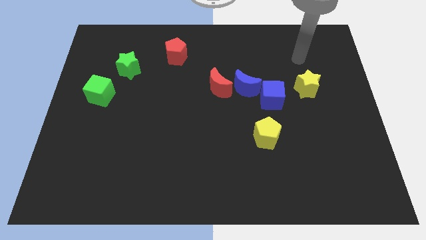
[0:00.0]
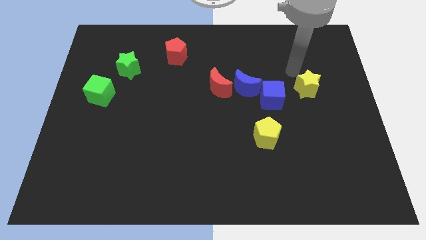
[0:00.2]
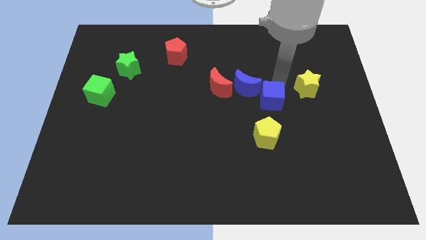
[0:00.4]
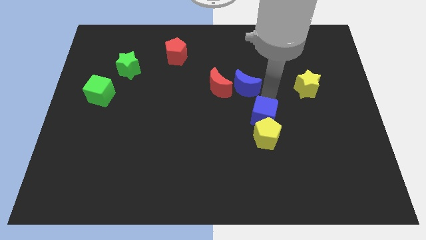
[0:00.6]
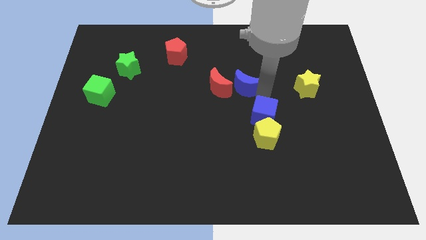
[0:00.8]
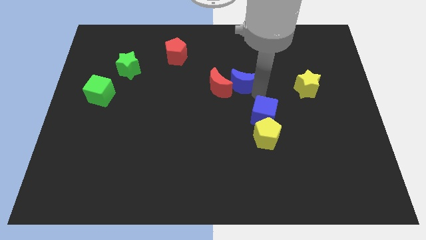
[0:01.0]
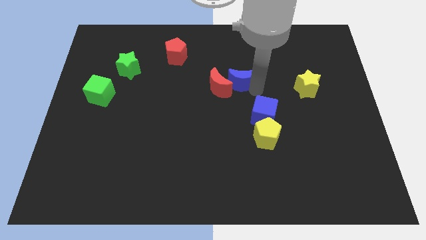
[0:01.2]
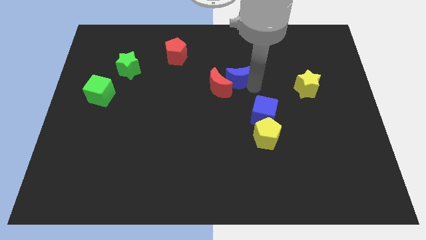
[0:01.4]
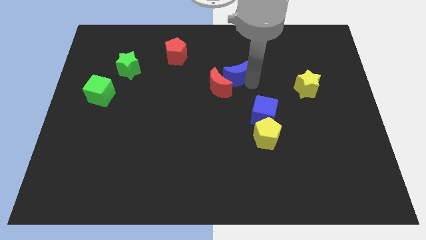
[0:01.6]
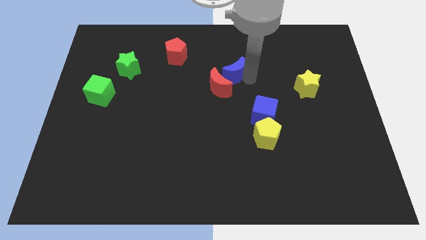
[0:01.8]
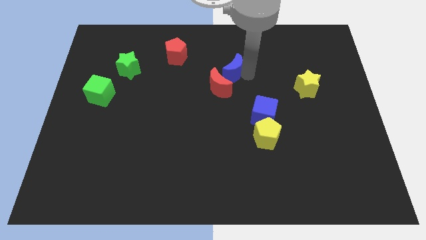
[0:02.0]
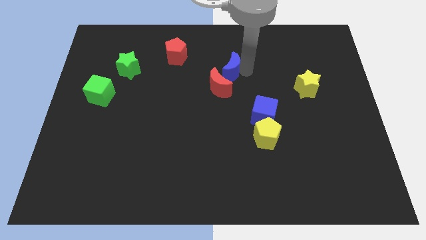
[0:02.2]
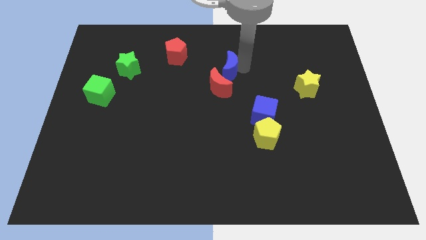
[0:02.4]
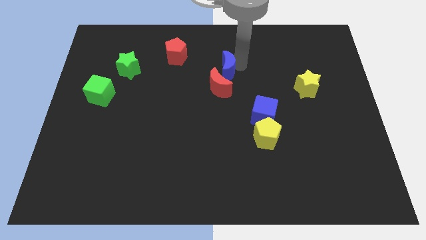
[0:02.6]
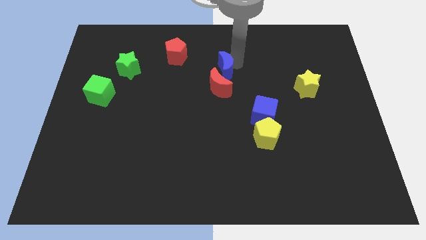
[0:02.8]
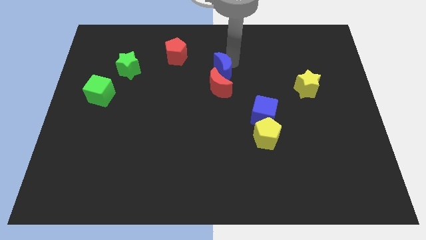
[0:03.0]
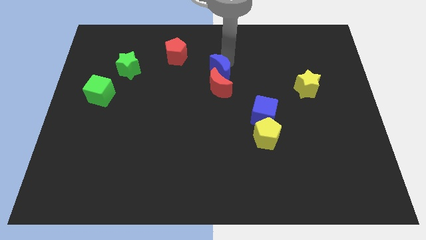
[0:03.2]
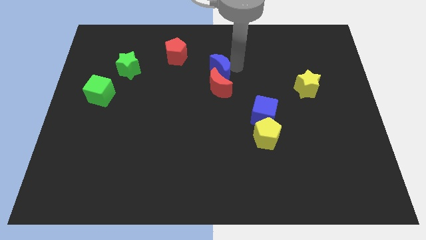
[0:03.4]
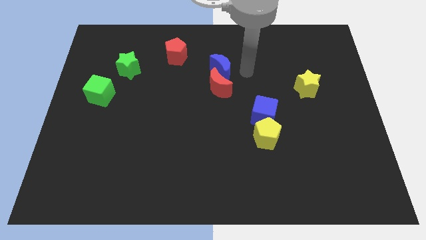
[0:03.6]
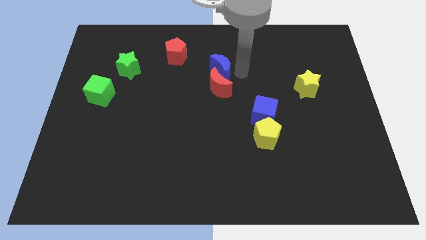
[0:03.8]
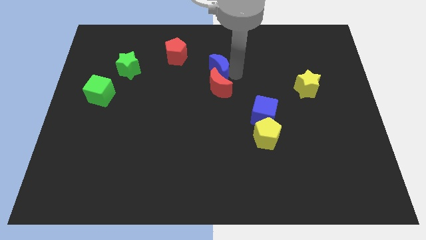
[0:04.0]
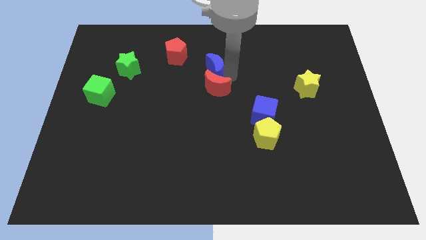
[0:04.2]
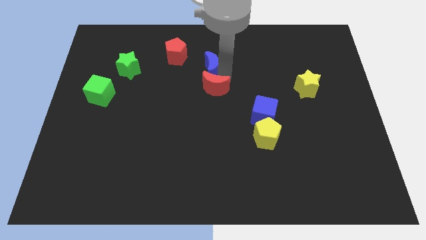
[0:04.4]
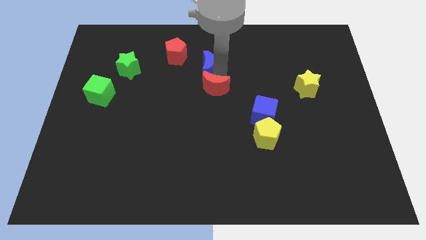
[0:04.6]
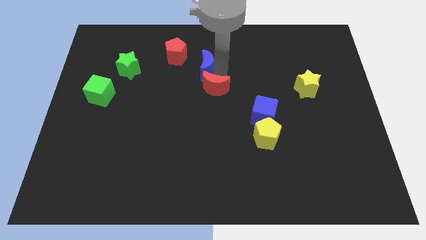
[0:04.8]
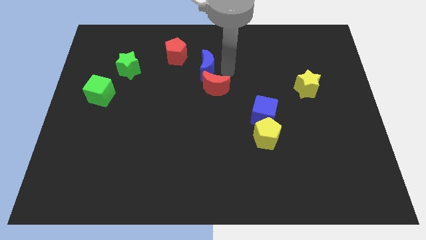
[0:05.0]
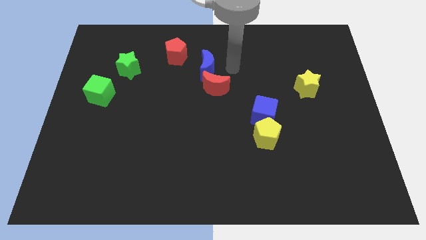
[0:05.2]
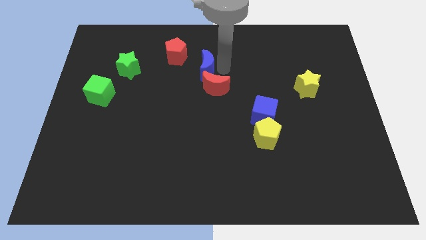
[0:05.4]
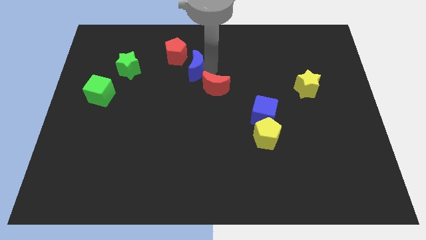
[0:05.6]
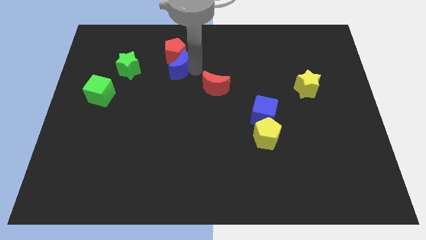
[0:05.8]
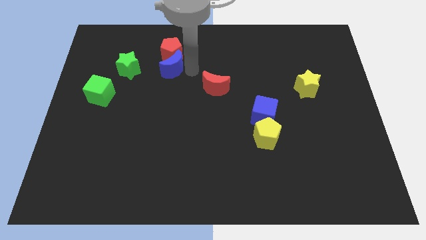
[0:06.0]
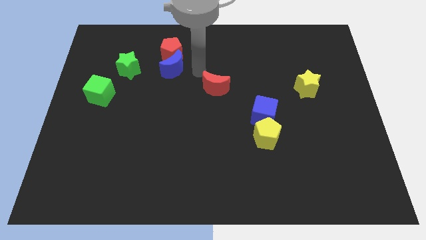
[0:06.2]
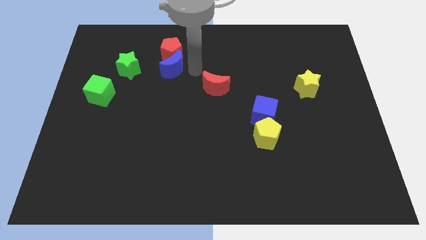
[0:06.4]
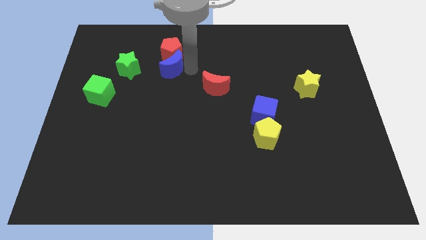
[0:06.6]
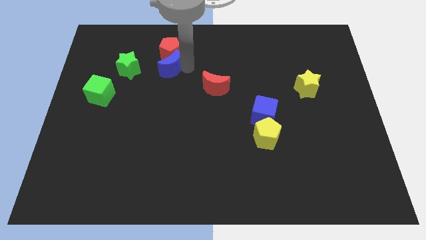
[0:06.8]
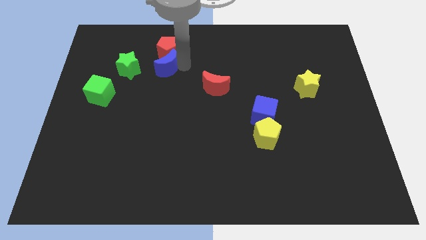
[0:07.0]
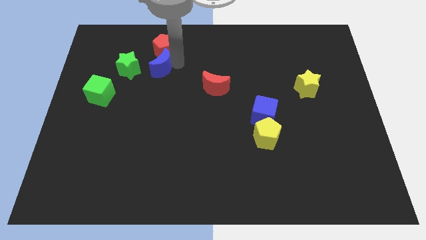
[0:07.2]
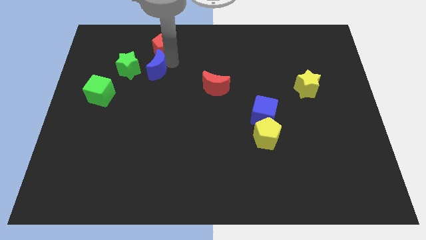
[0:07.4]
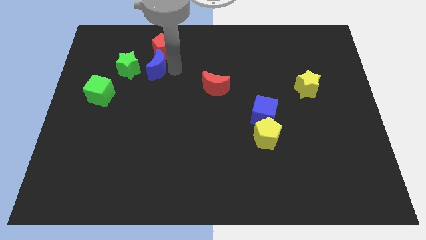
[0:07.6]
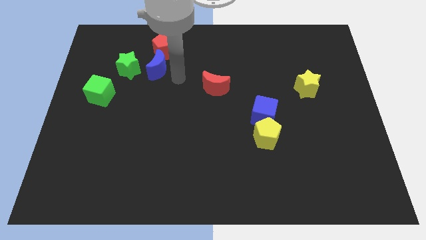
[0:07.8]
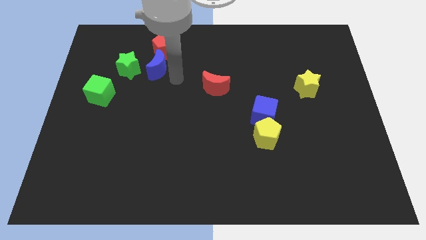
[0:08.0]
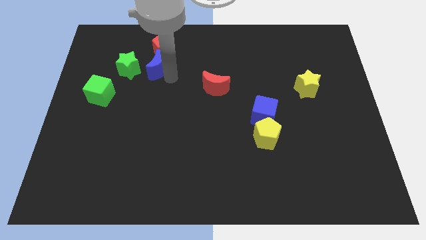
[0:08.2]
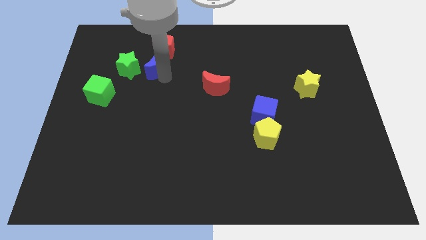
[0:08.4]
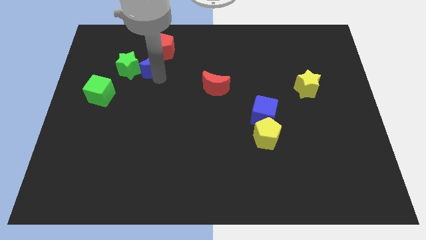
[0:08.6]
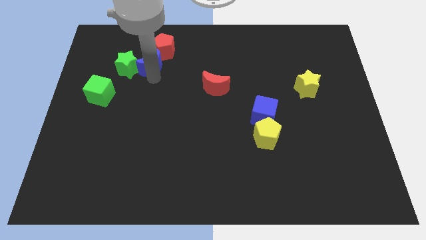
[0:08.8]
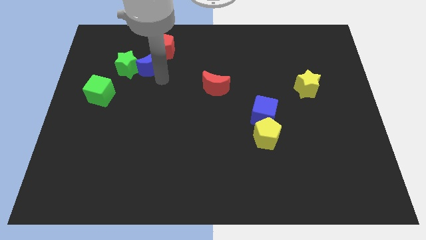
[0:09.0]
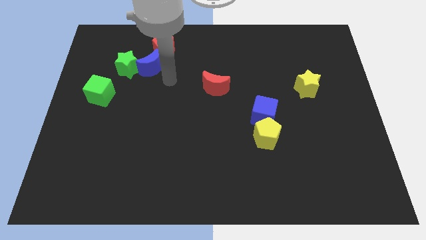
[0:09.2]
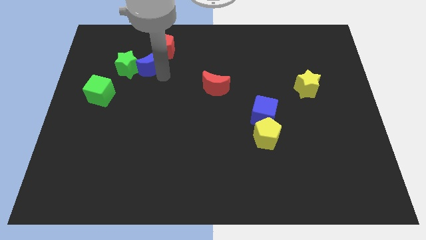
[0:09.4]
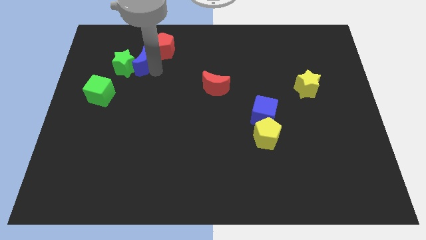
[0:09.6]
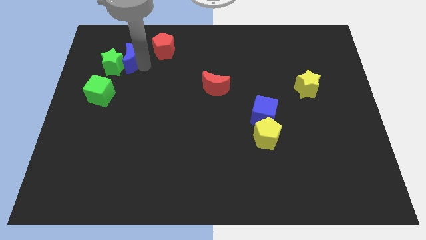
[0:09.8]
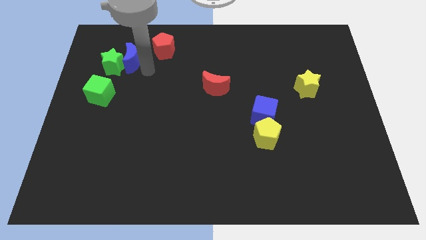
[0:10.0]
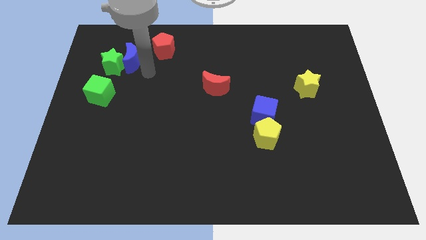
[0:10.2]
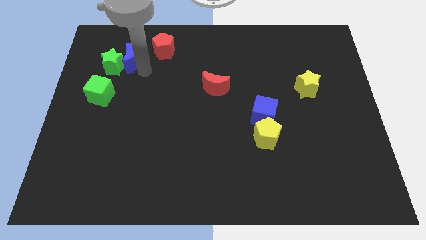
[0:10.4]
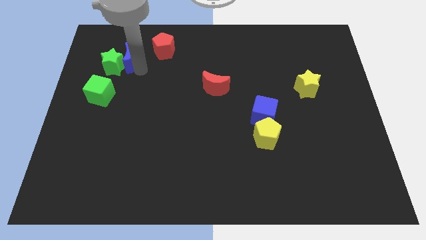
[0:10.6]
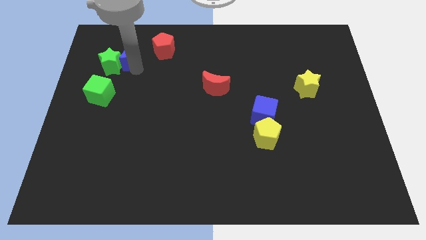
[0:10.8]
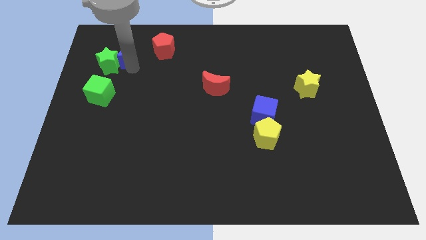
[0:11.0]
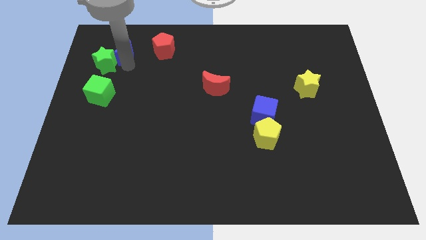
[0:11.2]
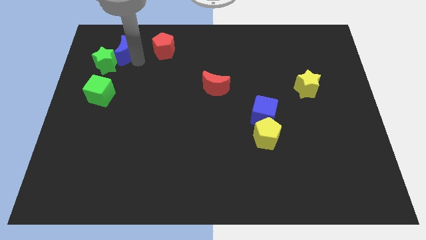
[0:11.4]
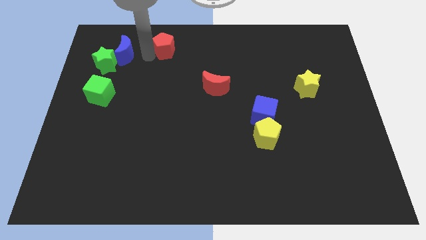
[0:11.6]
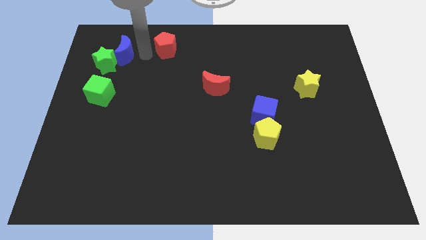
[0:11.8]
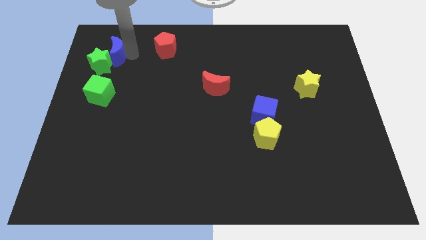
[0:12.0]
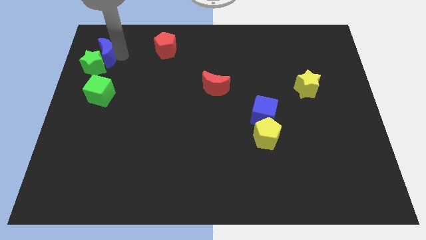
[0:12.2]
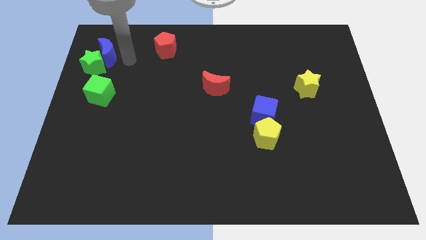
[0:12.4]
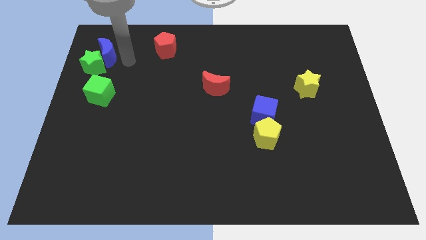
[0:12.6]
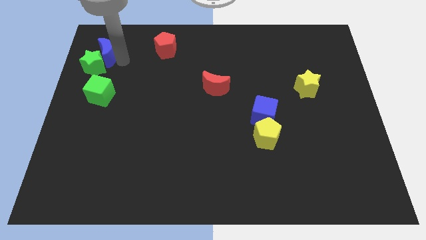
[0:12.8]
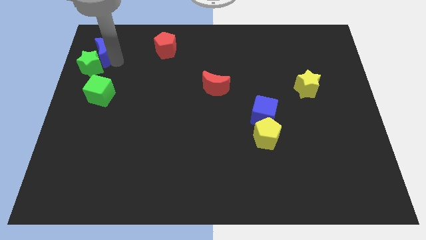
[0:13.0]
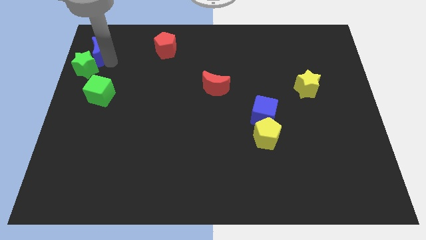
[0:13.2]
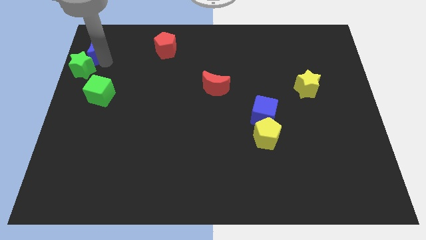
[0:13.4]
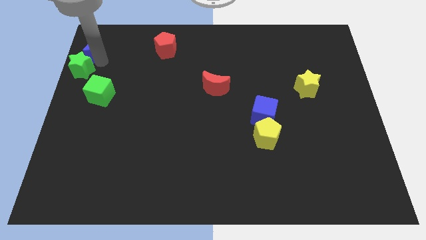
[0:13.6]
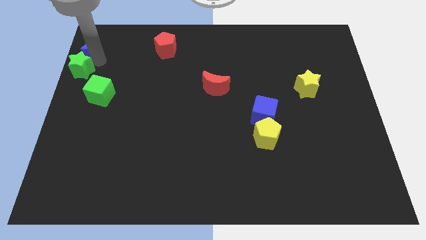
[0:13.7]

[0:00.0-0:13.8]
push the blue moon to the top left

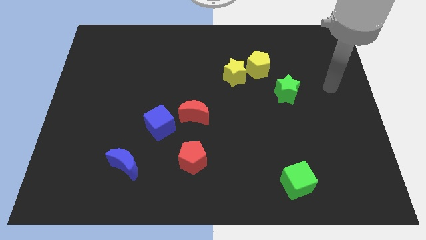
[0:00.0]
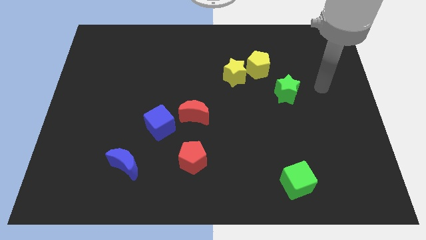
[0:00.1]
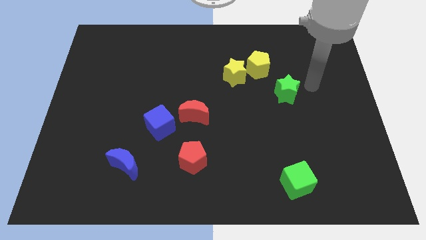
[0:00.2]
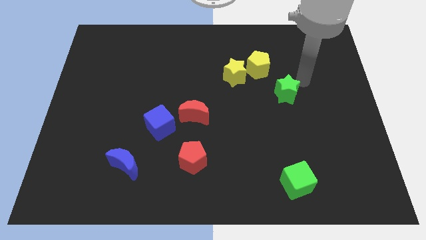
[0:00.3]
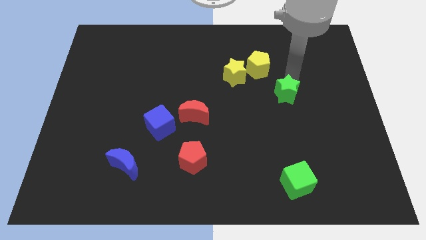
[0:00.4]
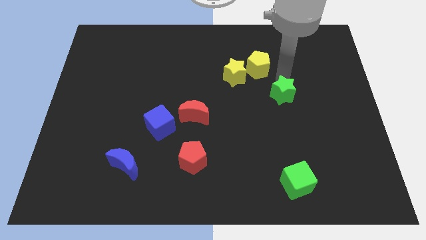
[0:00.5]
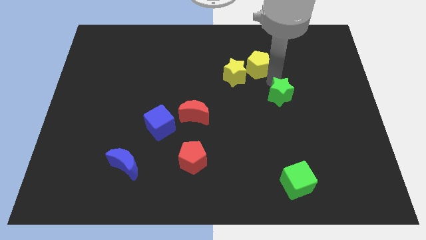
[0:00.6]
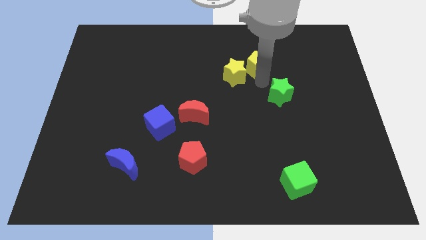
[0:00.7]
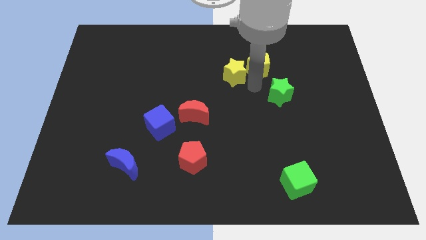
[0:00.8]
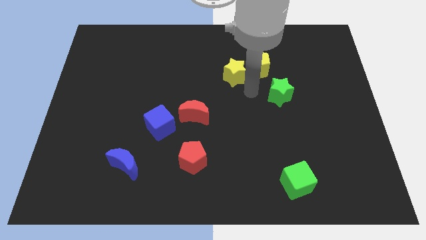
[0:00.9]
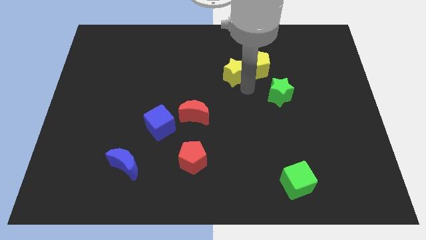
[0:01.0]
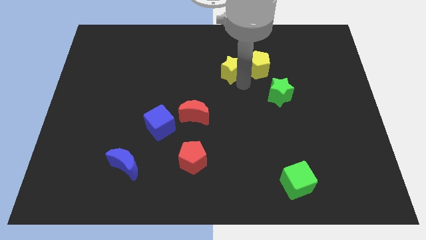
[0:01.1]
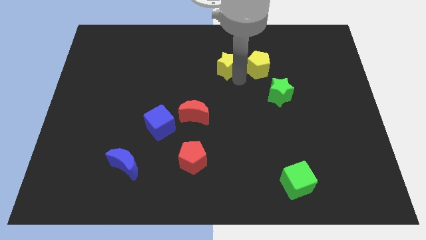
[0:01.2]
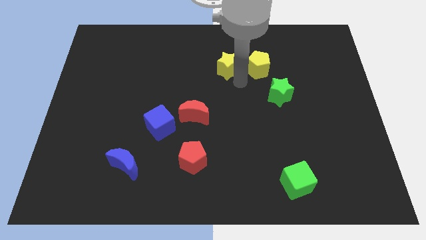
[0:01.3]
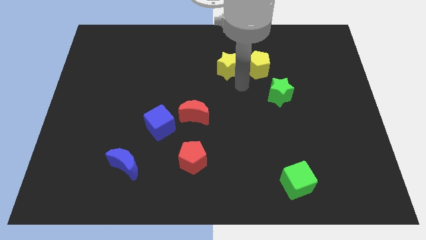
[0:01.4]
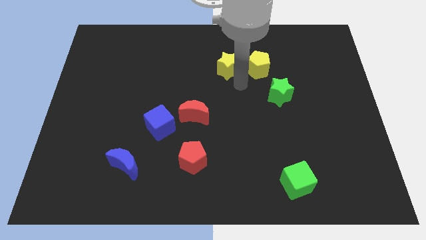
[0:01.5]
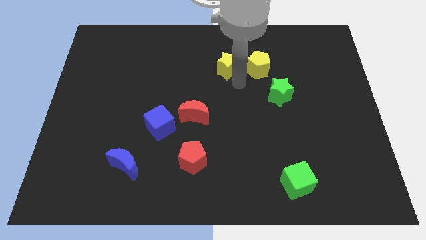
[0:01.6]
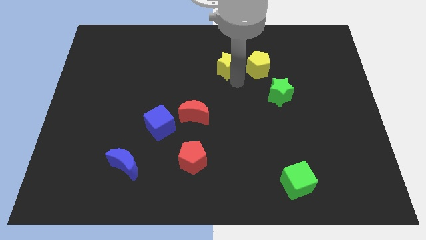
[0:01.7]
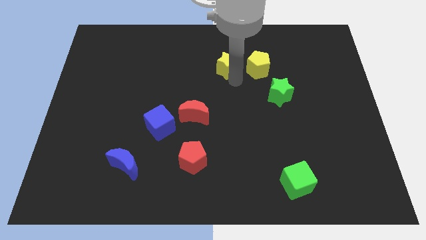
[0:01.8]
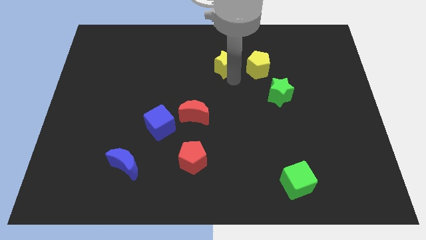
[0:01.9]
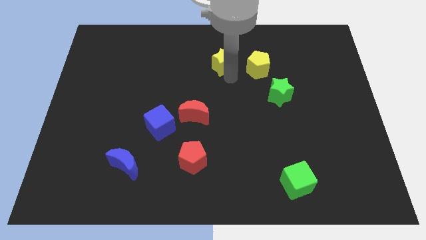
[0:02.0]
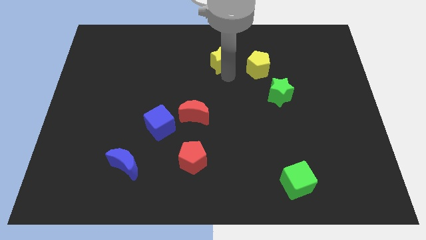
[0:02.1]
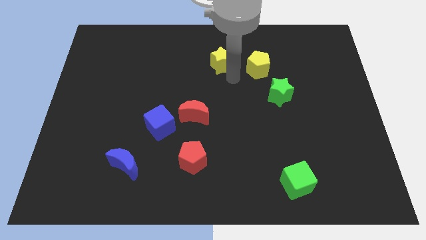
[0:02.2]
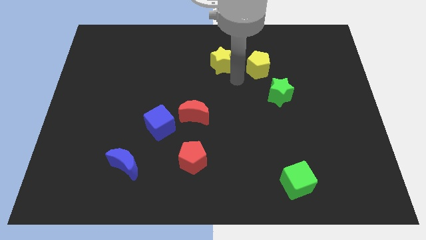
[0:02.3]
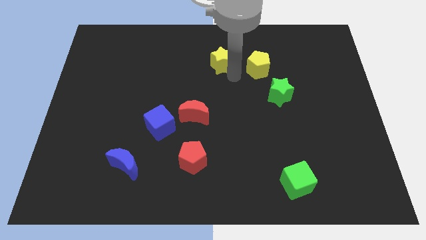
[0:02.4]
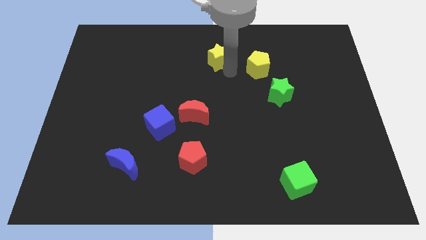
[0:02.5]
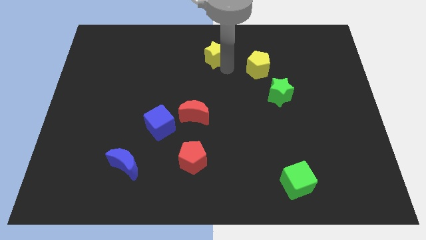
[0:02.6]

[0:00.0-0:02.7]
push the yellow star to the top side
